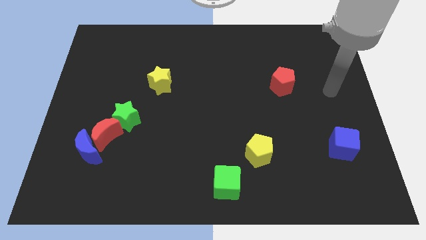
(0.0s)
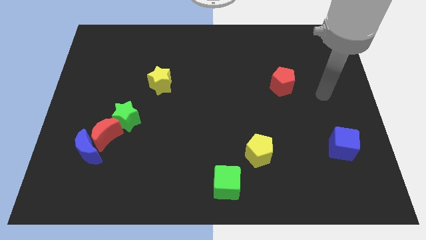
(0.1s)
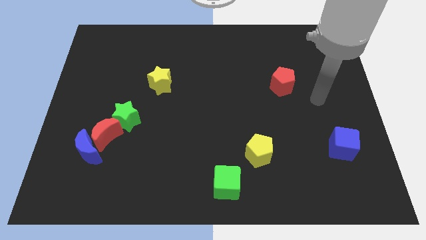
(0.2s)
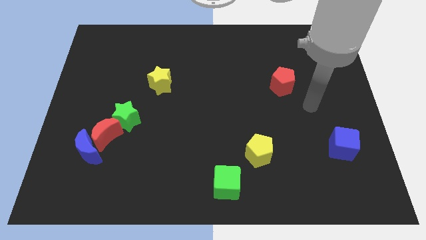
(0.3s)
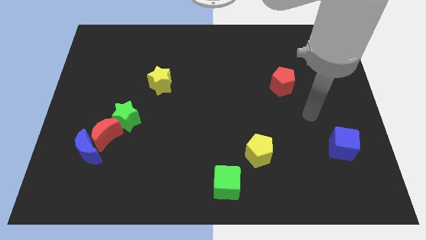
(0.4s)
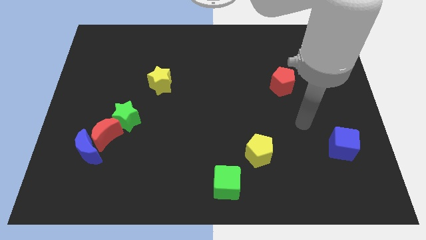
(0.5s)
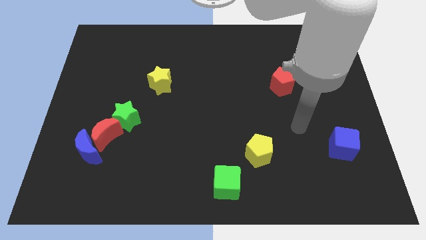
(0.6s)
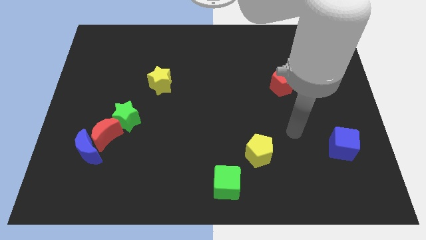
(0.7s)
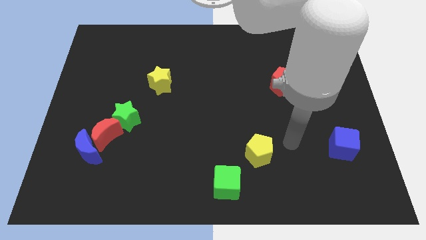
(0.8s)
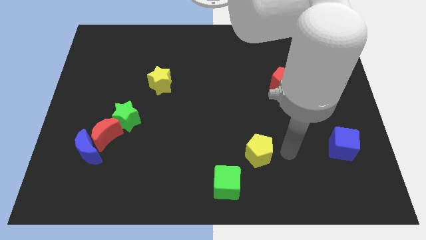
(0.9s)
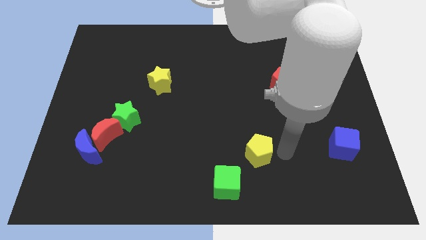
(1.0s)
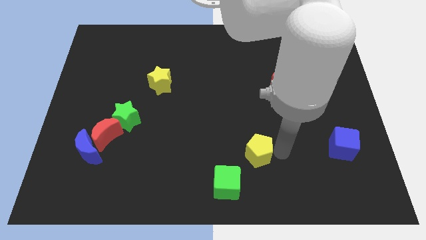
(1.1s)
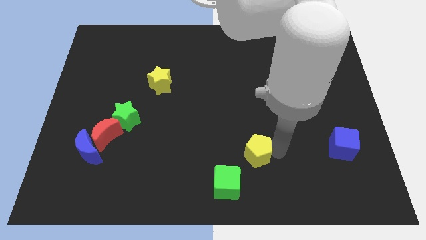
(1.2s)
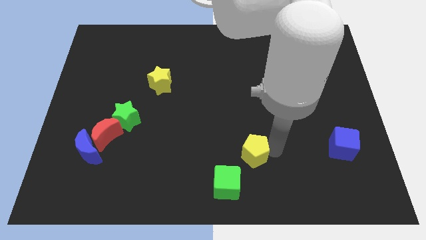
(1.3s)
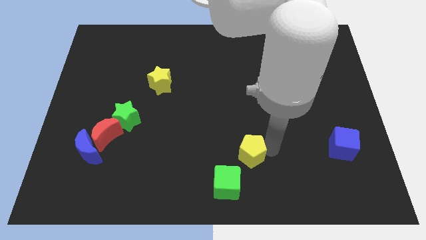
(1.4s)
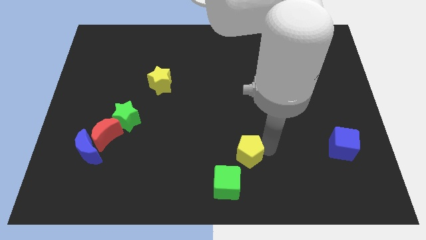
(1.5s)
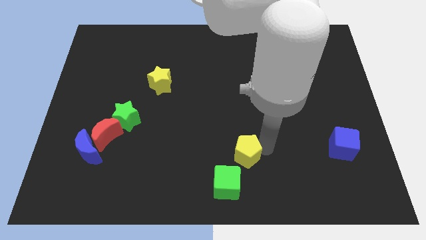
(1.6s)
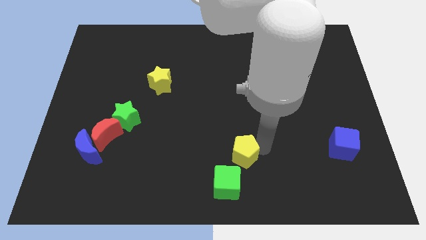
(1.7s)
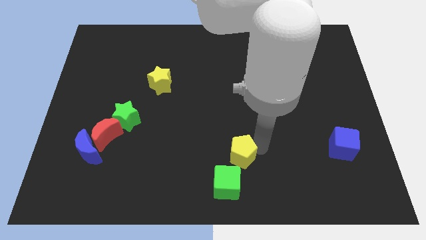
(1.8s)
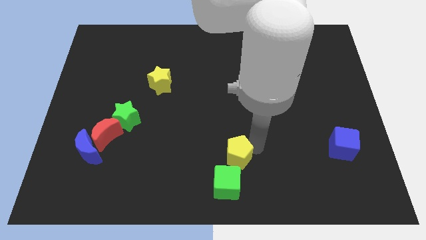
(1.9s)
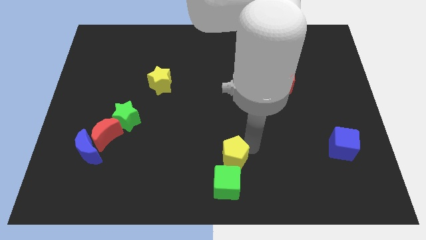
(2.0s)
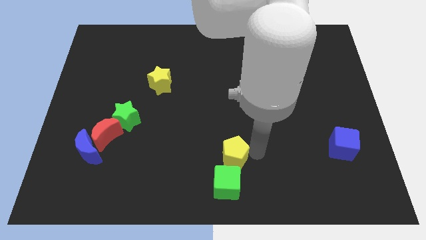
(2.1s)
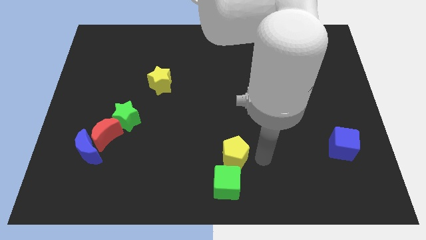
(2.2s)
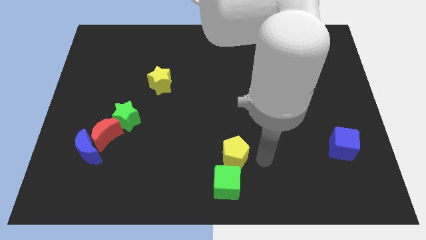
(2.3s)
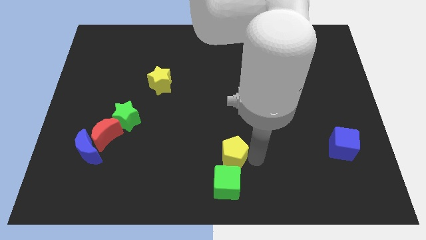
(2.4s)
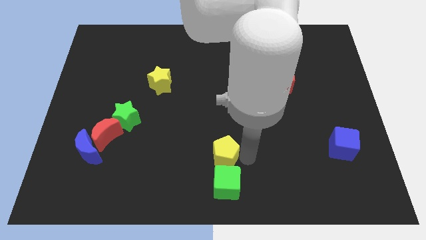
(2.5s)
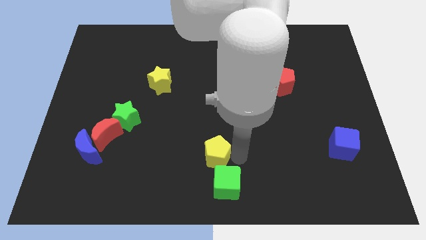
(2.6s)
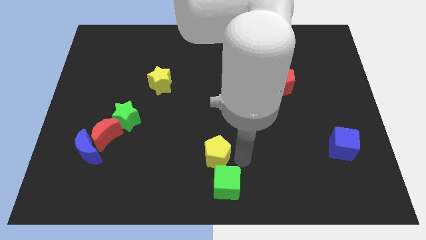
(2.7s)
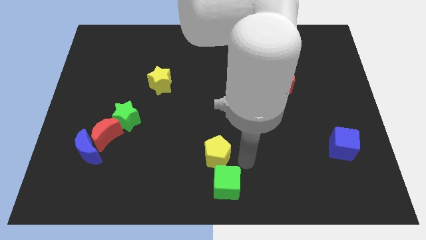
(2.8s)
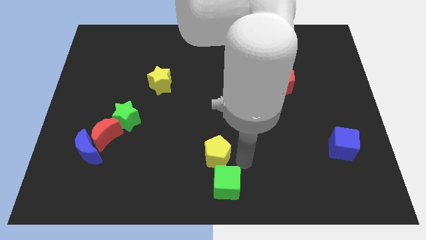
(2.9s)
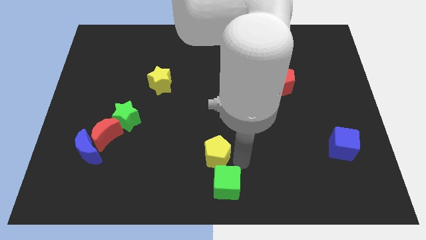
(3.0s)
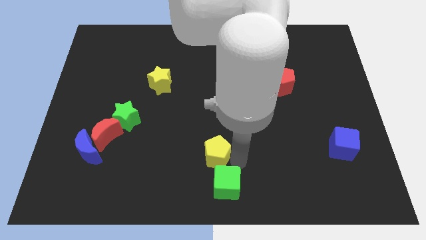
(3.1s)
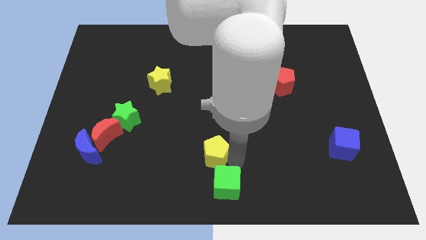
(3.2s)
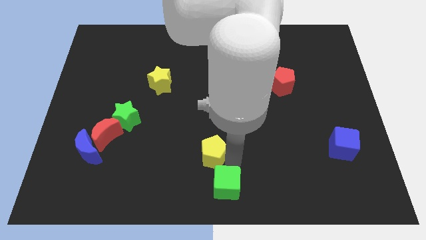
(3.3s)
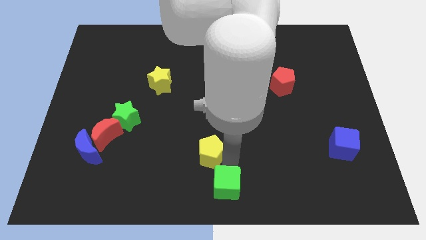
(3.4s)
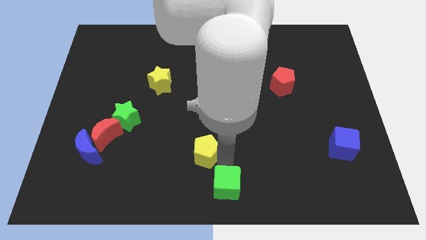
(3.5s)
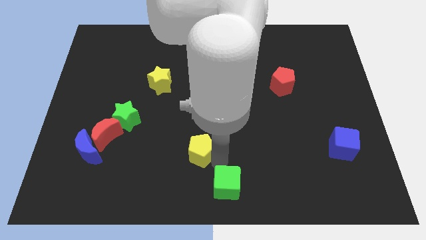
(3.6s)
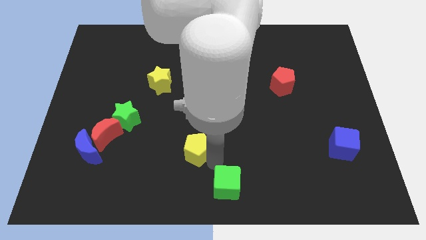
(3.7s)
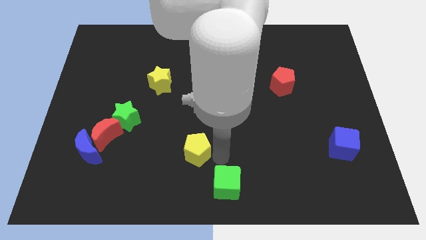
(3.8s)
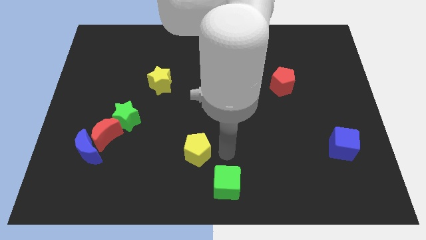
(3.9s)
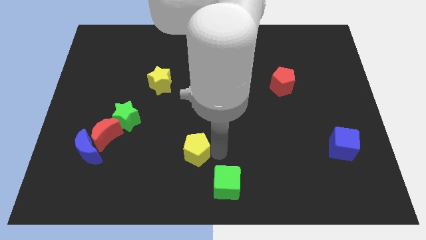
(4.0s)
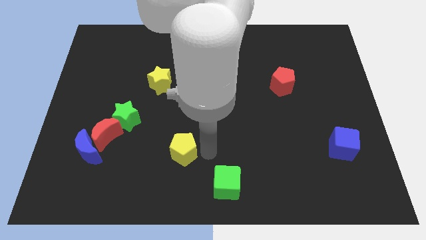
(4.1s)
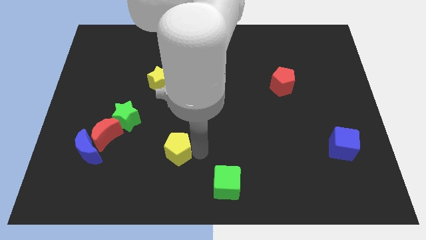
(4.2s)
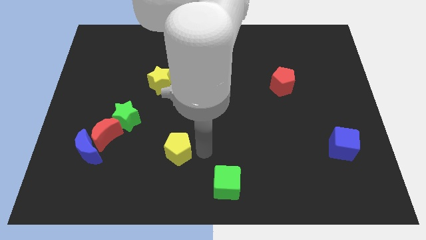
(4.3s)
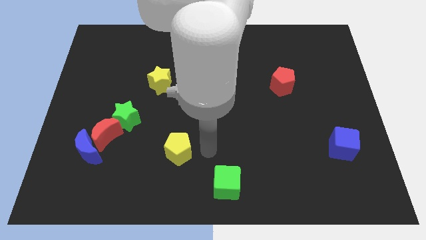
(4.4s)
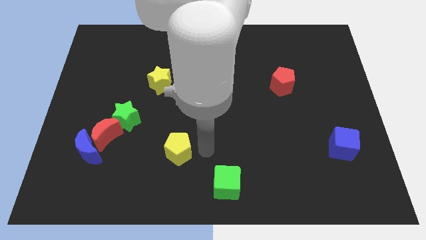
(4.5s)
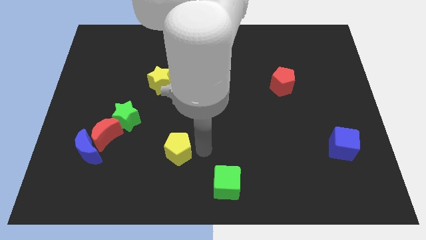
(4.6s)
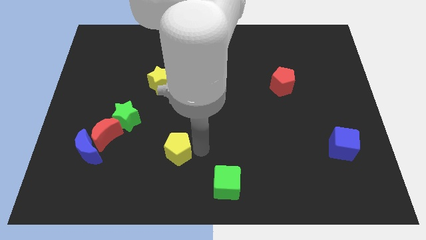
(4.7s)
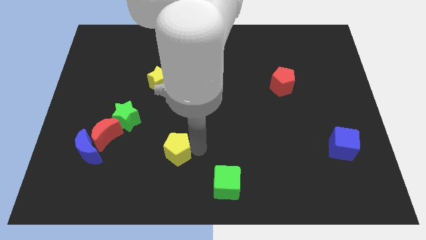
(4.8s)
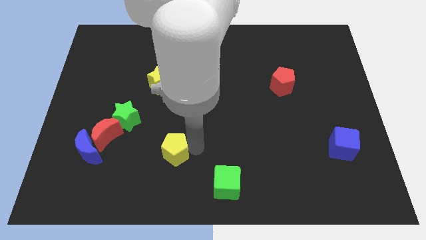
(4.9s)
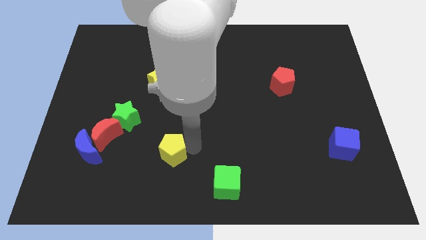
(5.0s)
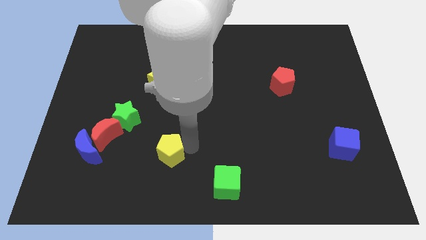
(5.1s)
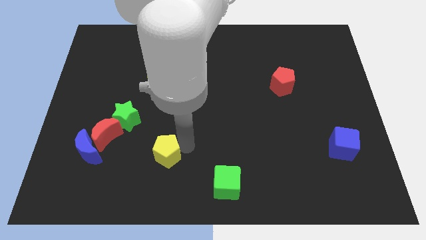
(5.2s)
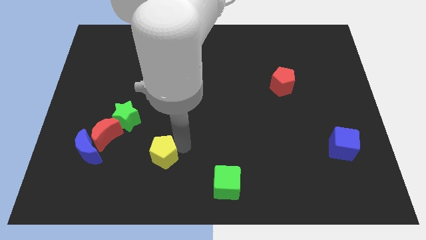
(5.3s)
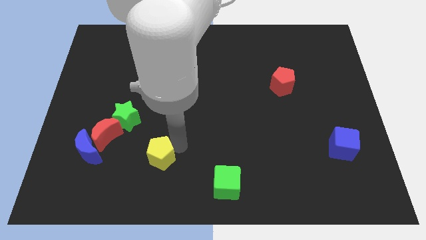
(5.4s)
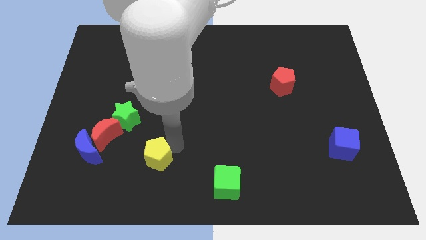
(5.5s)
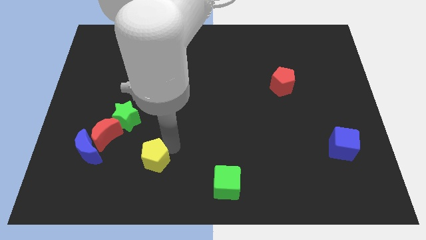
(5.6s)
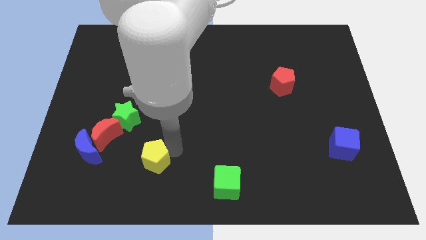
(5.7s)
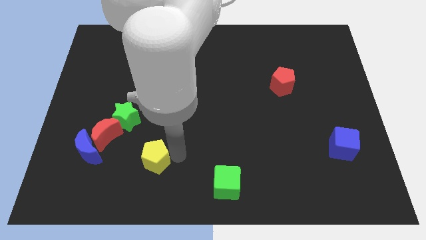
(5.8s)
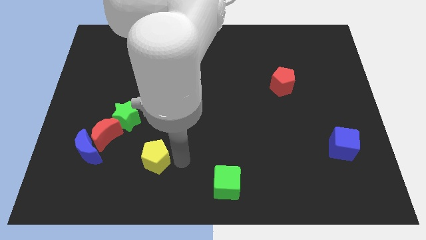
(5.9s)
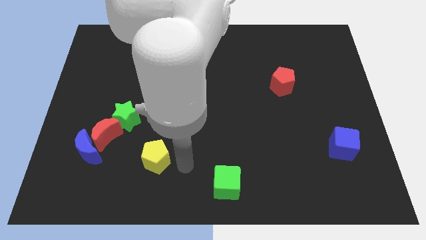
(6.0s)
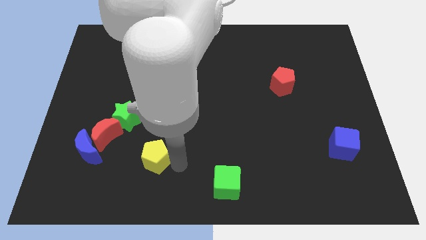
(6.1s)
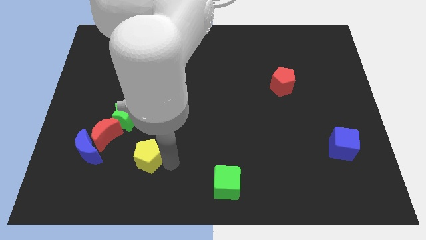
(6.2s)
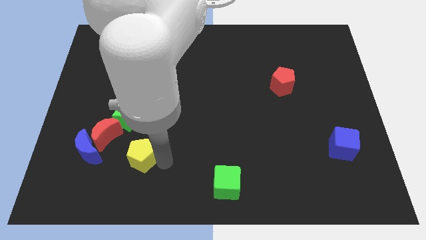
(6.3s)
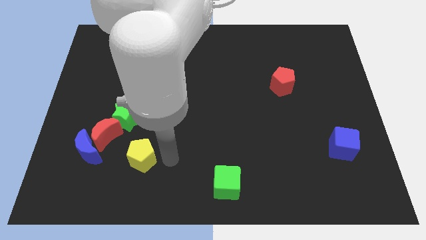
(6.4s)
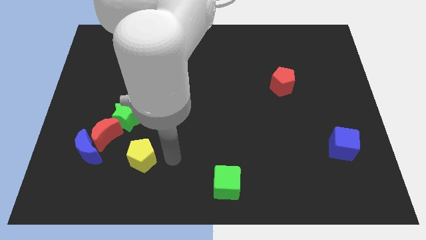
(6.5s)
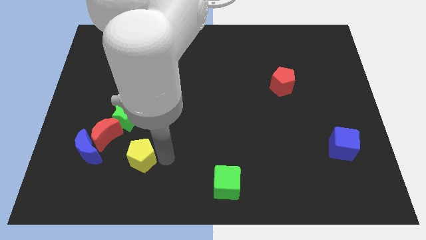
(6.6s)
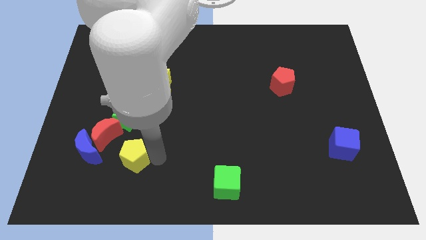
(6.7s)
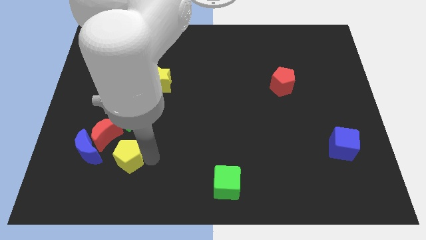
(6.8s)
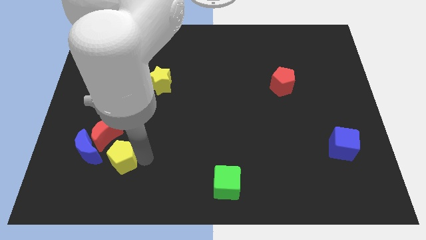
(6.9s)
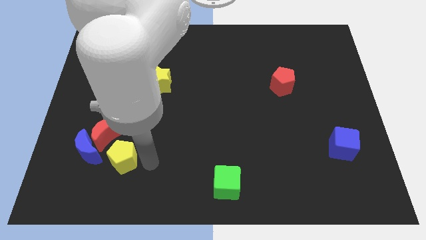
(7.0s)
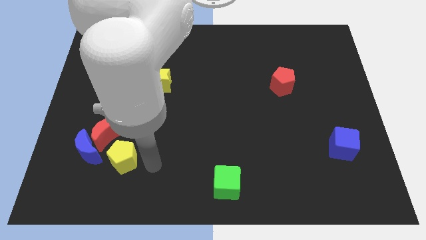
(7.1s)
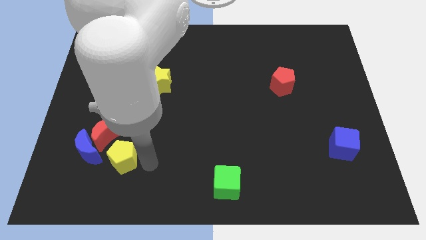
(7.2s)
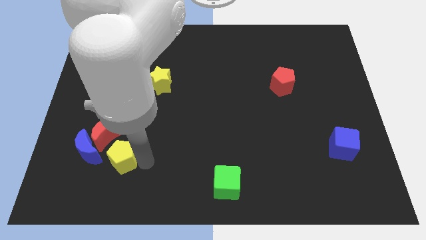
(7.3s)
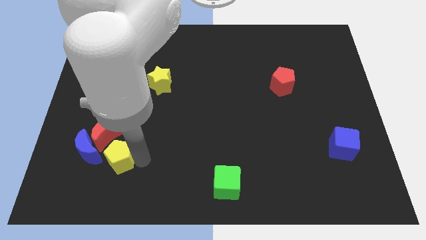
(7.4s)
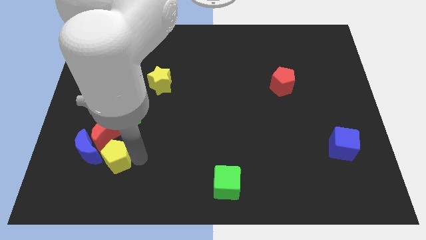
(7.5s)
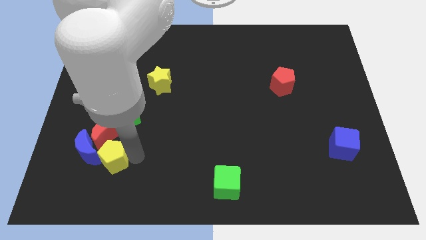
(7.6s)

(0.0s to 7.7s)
slide the yellow pentagon towards the blue moon

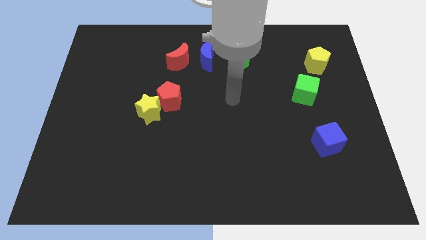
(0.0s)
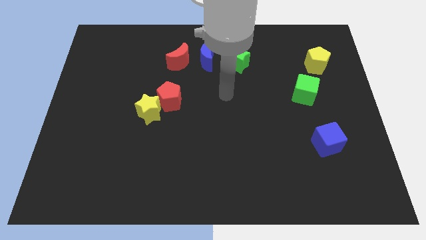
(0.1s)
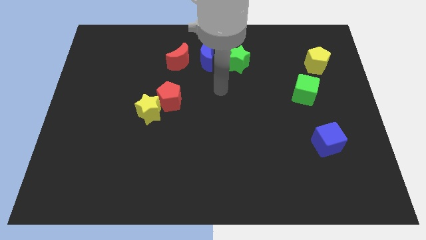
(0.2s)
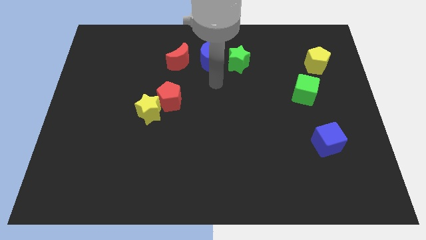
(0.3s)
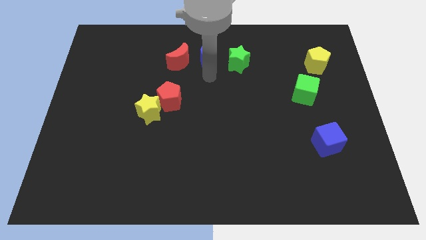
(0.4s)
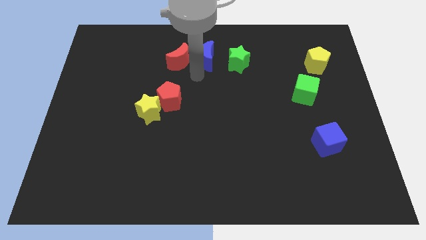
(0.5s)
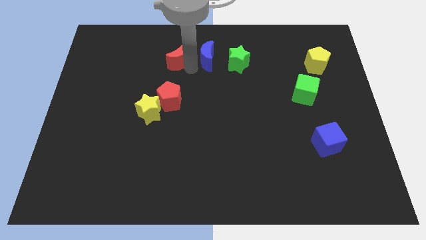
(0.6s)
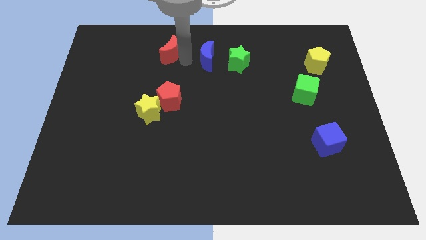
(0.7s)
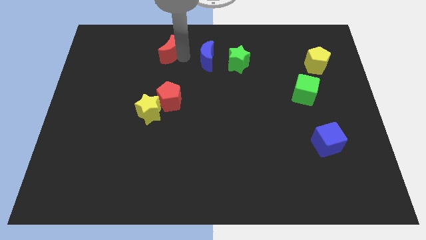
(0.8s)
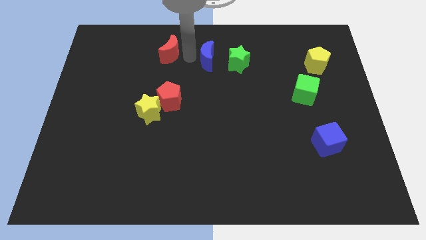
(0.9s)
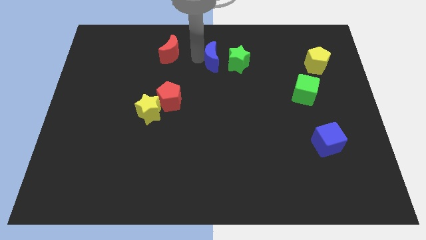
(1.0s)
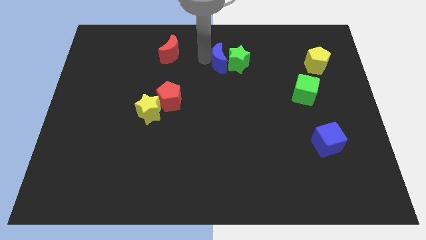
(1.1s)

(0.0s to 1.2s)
push the blue moon to the green star
